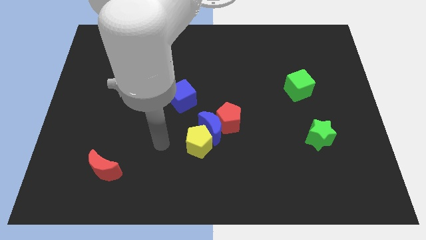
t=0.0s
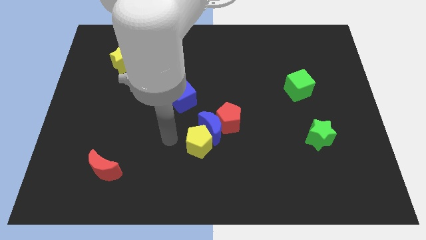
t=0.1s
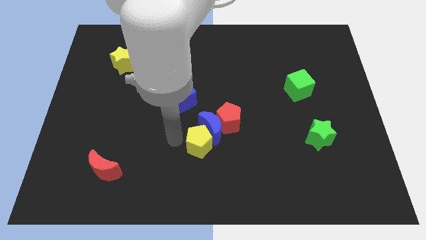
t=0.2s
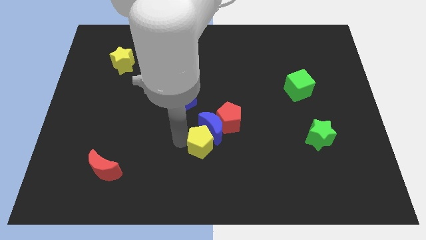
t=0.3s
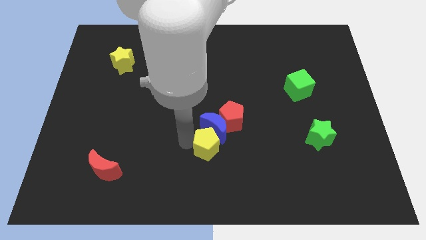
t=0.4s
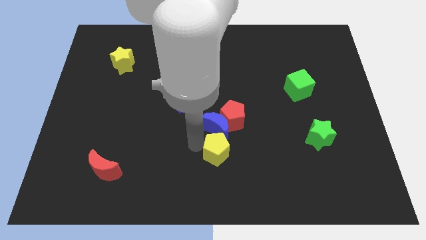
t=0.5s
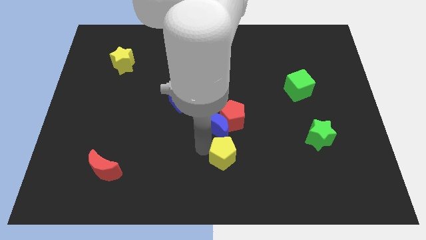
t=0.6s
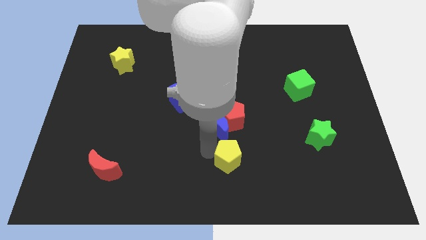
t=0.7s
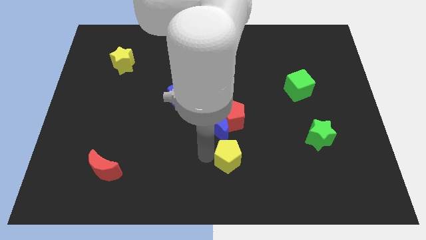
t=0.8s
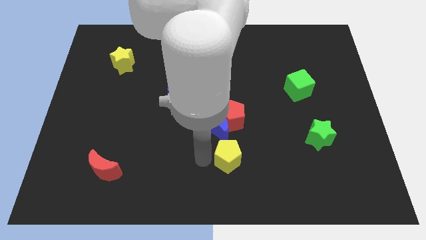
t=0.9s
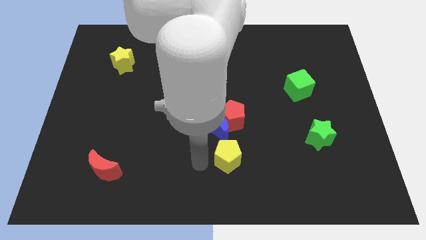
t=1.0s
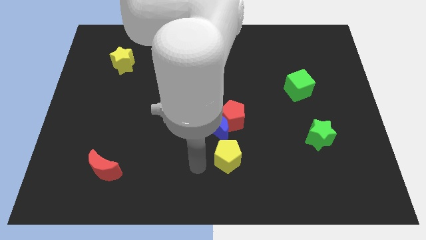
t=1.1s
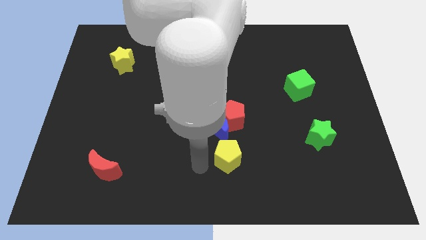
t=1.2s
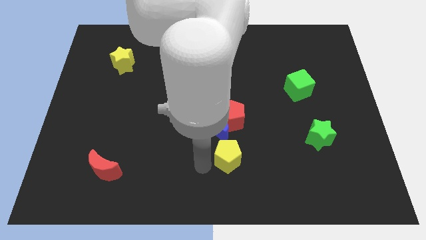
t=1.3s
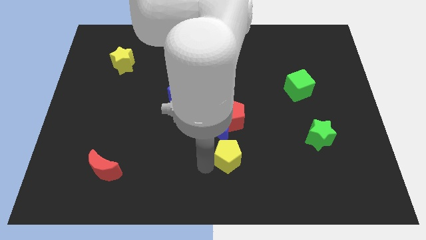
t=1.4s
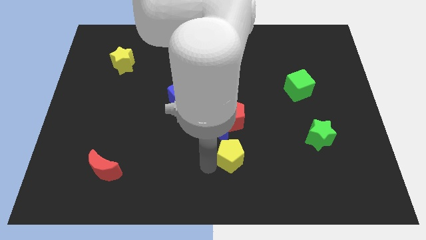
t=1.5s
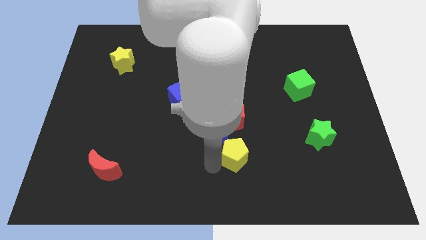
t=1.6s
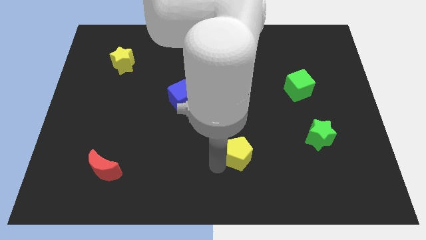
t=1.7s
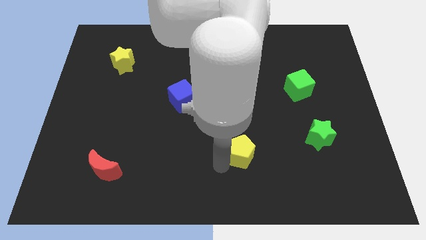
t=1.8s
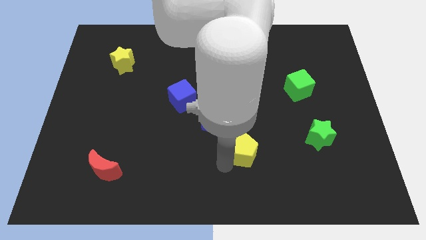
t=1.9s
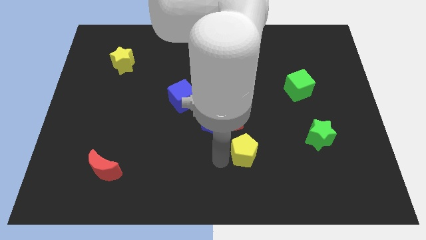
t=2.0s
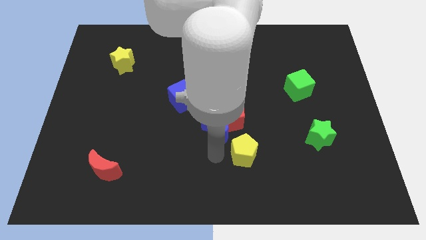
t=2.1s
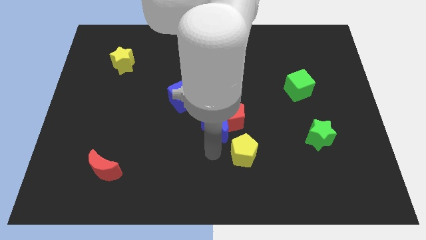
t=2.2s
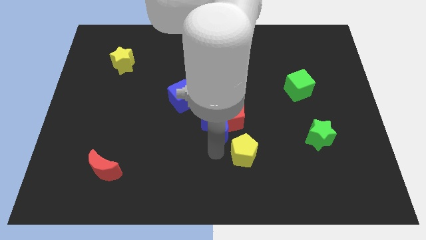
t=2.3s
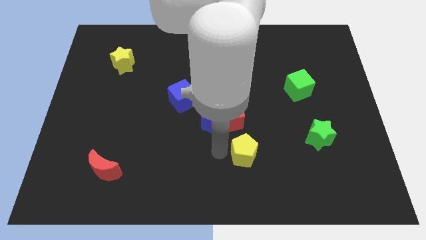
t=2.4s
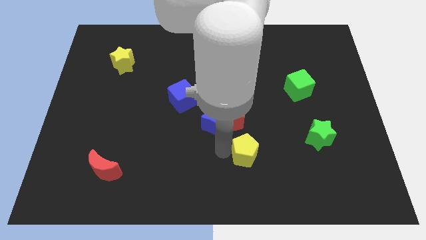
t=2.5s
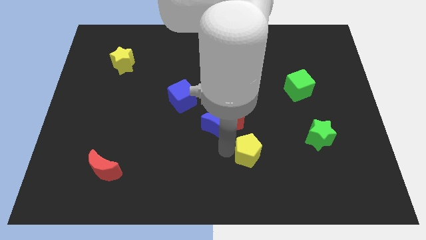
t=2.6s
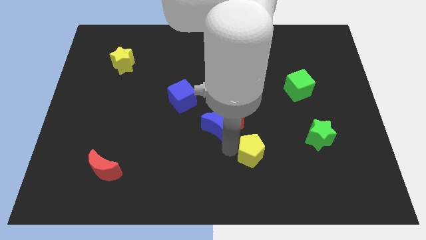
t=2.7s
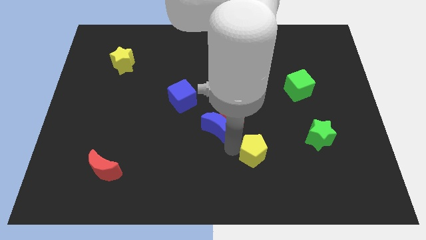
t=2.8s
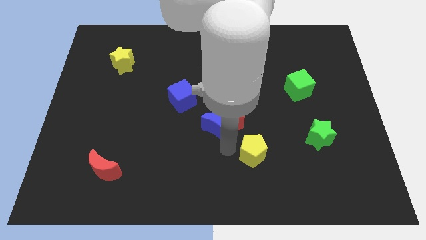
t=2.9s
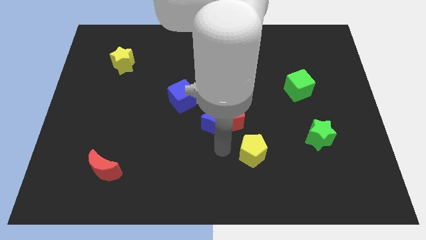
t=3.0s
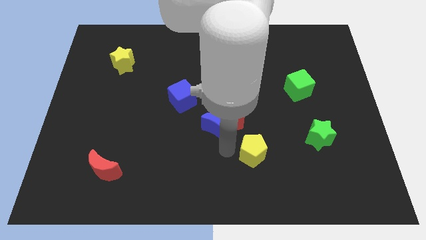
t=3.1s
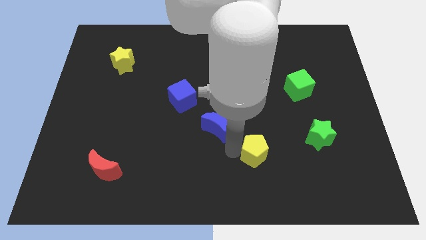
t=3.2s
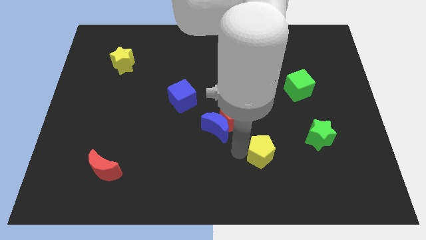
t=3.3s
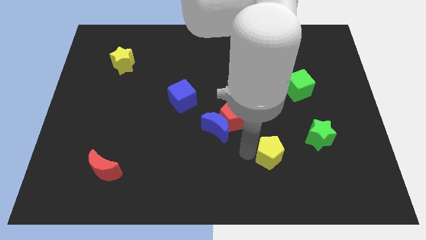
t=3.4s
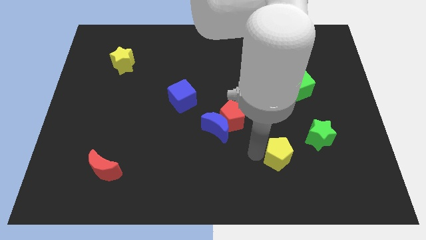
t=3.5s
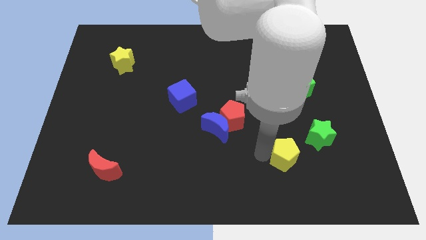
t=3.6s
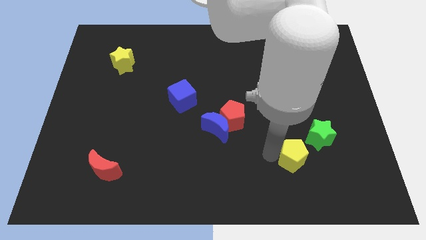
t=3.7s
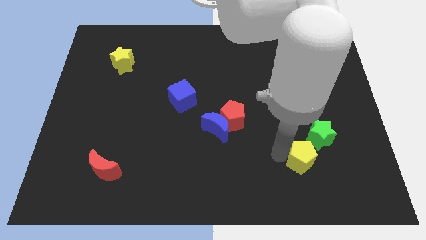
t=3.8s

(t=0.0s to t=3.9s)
slide the yellow pentagon right

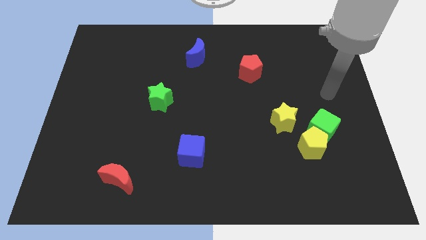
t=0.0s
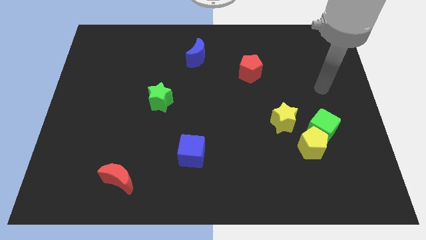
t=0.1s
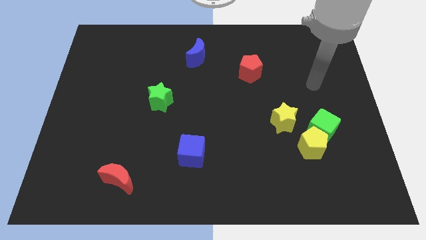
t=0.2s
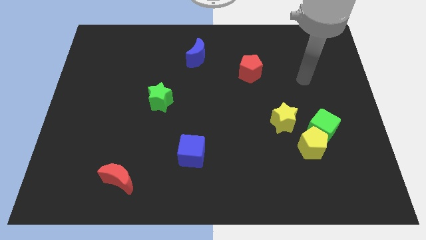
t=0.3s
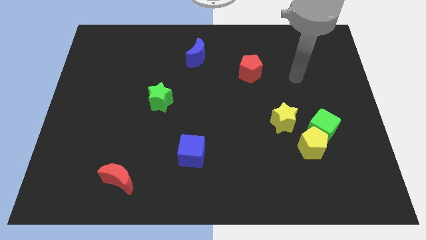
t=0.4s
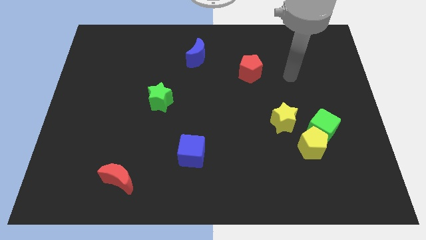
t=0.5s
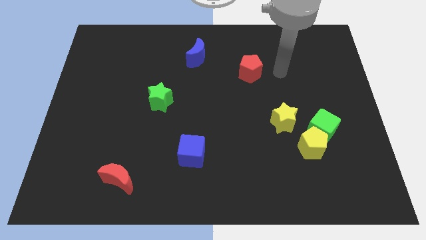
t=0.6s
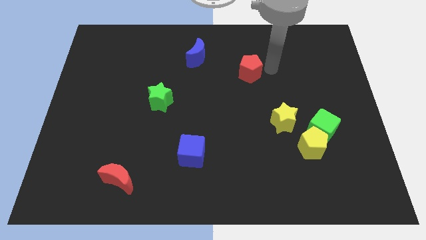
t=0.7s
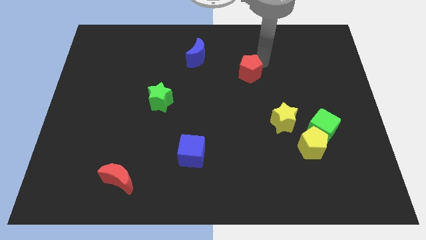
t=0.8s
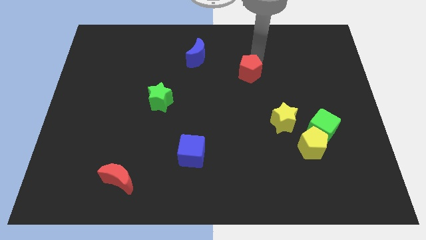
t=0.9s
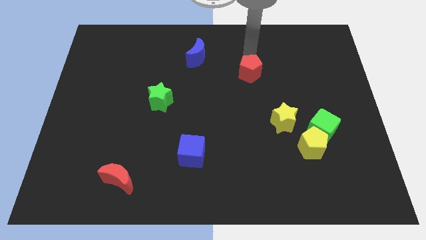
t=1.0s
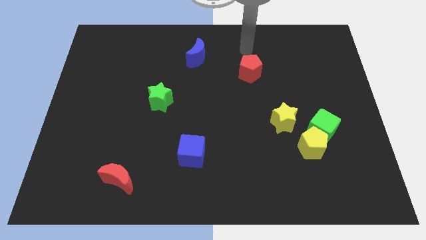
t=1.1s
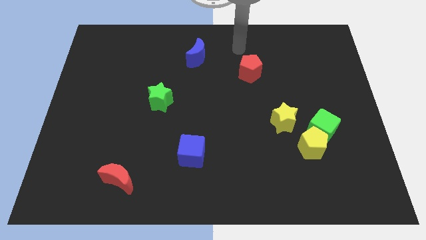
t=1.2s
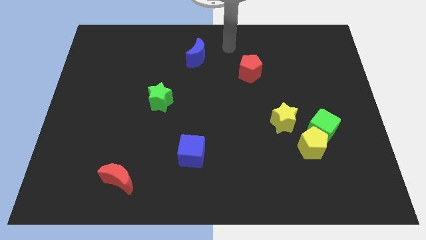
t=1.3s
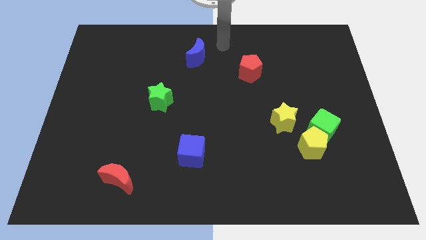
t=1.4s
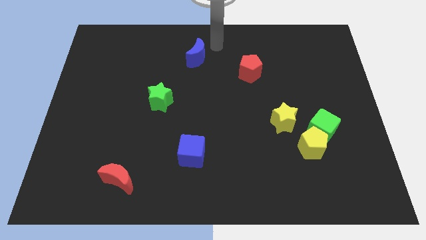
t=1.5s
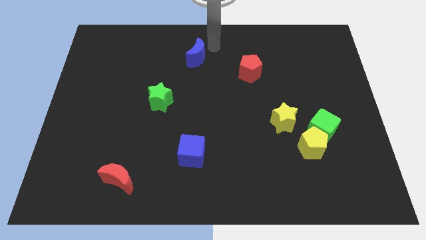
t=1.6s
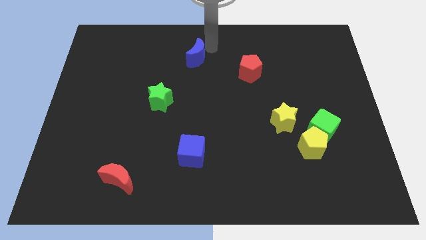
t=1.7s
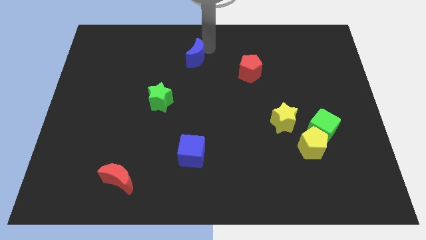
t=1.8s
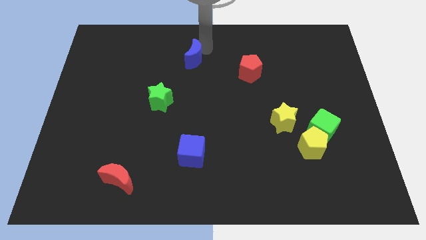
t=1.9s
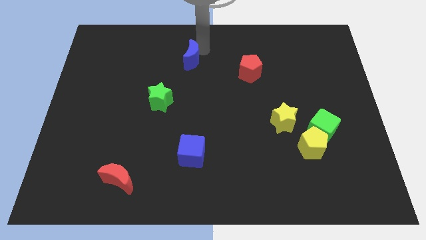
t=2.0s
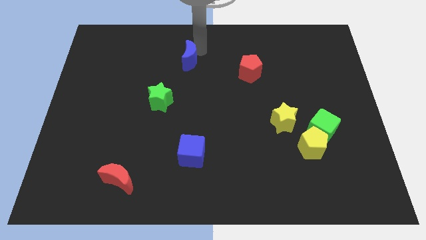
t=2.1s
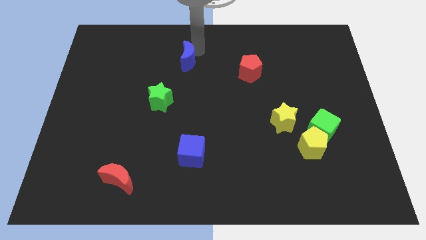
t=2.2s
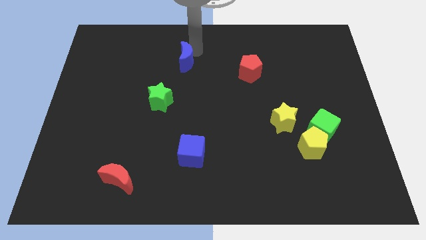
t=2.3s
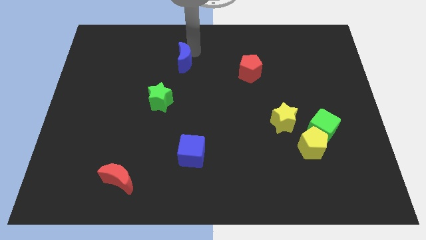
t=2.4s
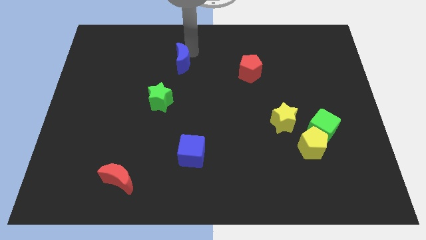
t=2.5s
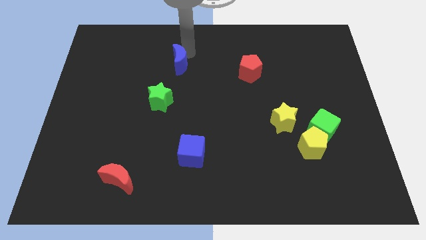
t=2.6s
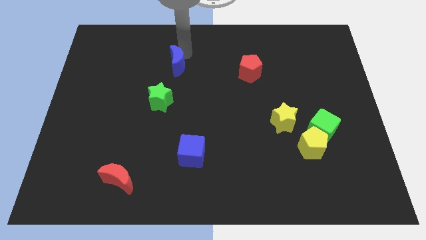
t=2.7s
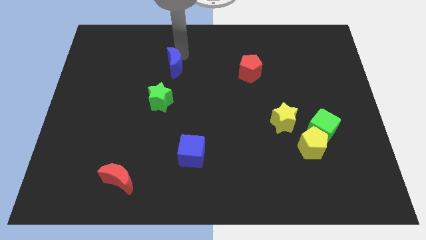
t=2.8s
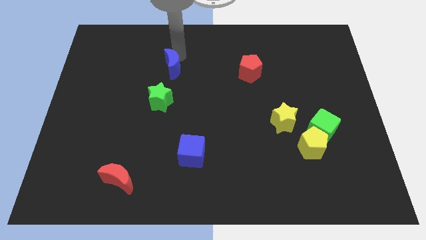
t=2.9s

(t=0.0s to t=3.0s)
push the blue moon diagonally down and left somewhat

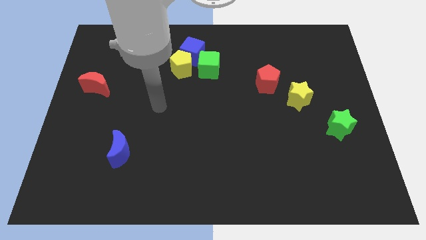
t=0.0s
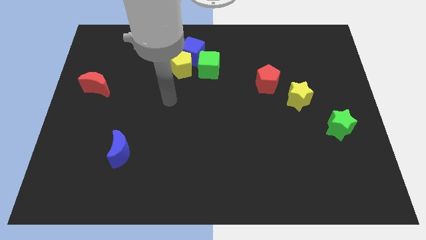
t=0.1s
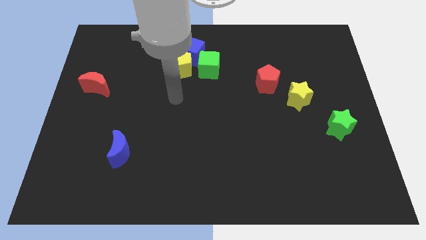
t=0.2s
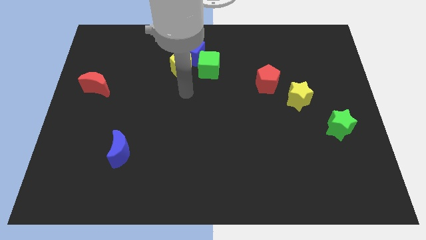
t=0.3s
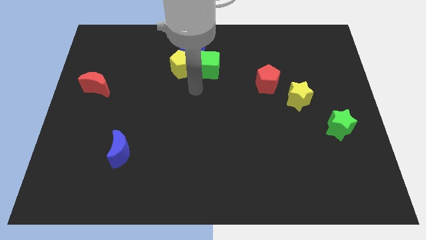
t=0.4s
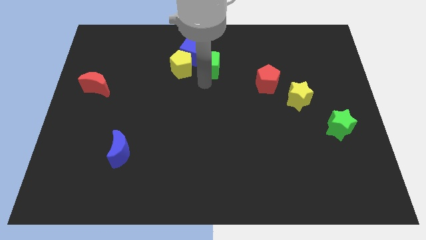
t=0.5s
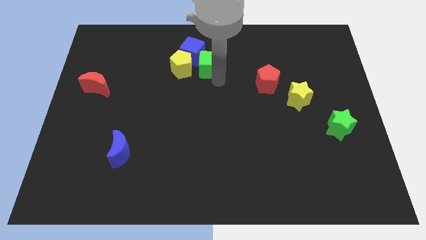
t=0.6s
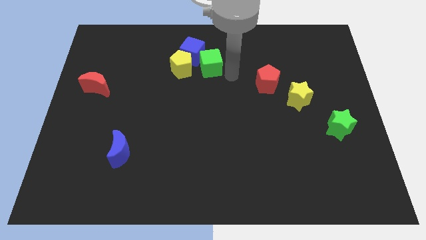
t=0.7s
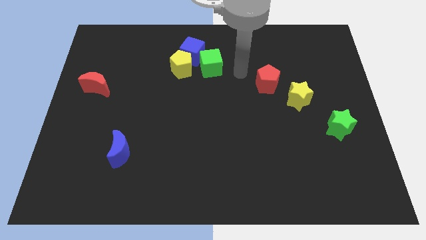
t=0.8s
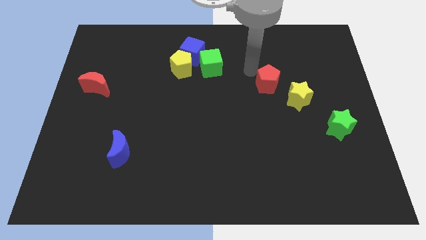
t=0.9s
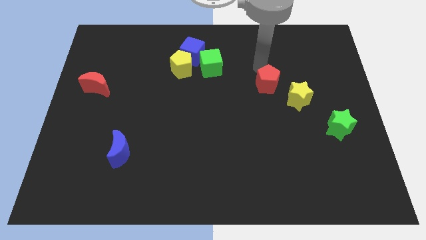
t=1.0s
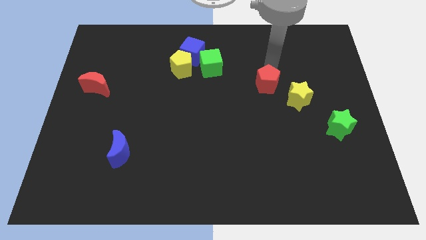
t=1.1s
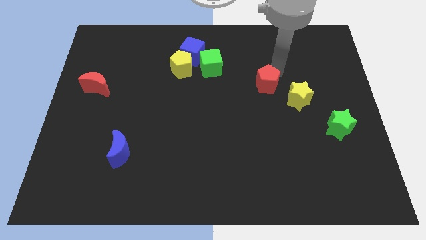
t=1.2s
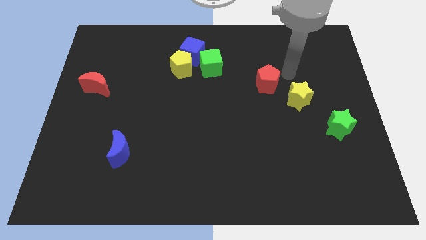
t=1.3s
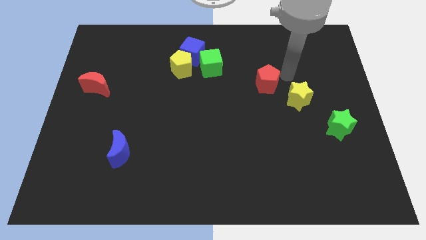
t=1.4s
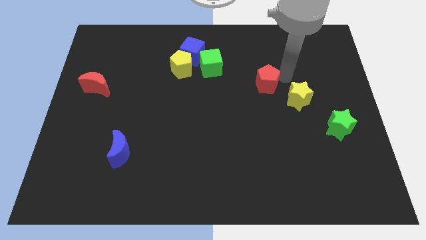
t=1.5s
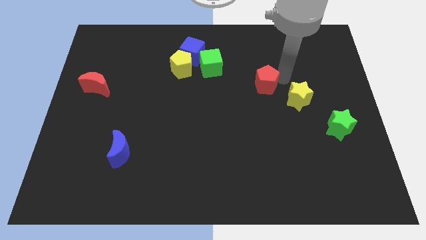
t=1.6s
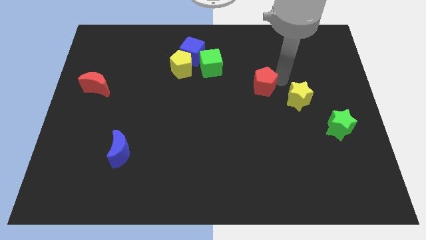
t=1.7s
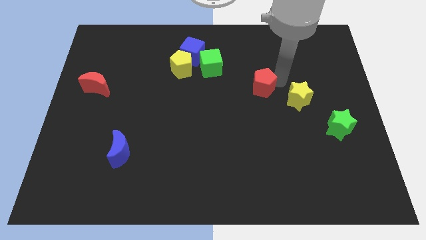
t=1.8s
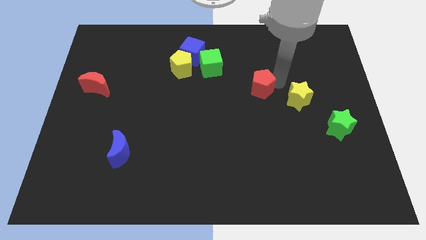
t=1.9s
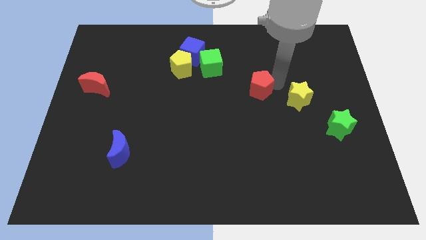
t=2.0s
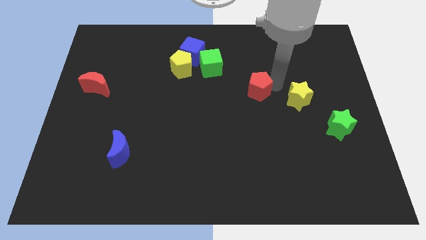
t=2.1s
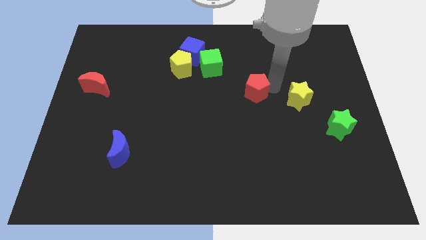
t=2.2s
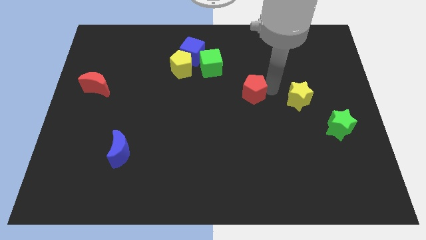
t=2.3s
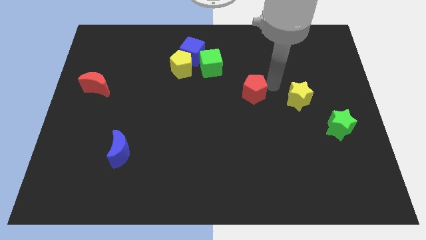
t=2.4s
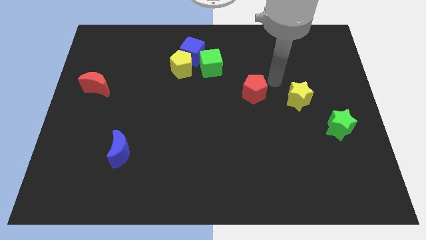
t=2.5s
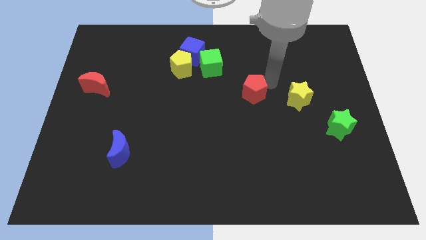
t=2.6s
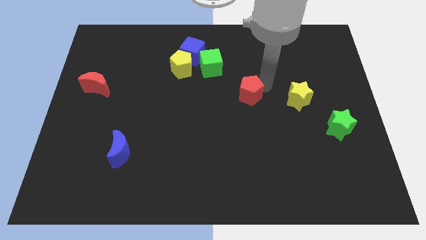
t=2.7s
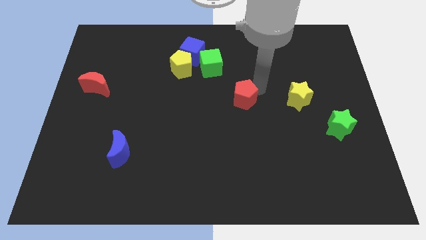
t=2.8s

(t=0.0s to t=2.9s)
move the red pentagon slightly downwards and then to the left
